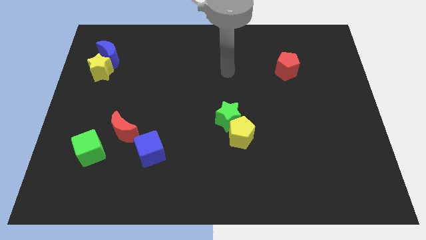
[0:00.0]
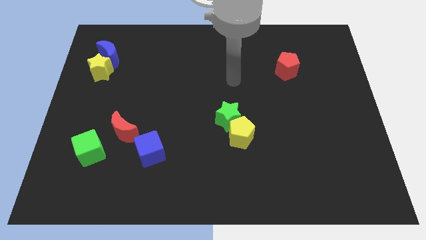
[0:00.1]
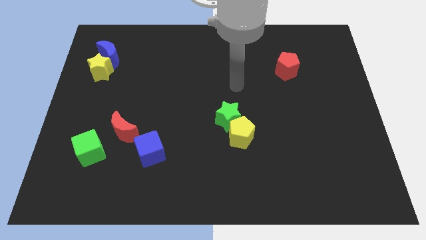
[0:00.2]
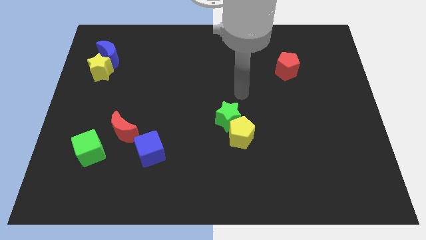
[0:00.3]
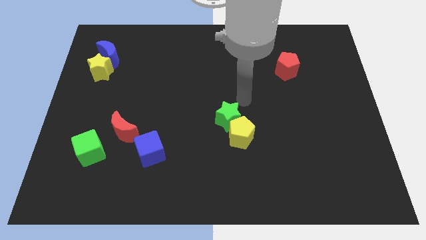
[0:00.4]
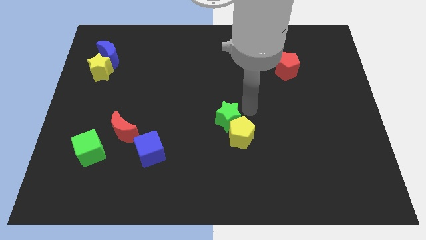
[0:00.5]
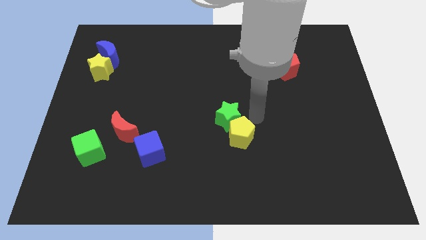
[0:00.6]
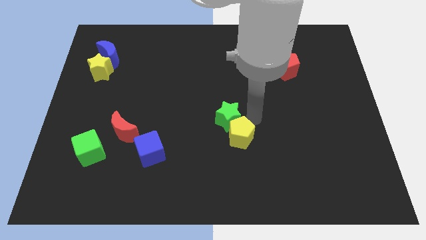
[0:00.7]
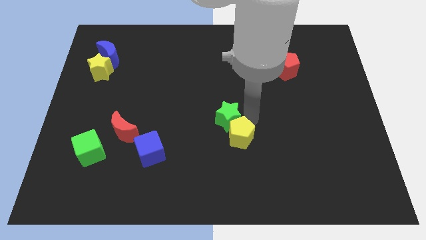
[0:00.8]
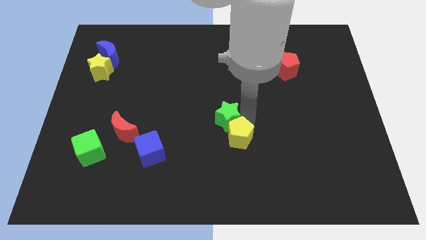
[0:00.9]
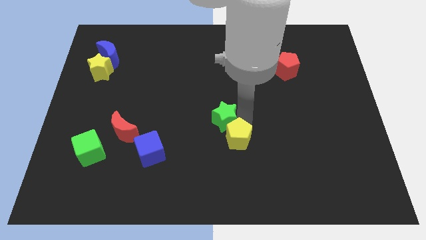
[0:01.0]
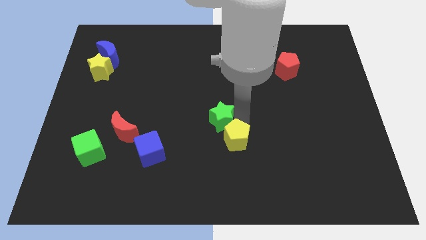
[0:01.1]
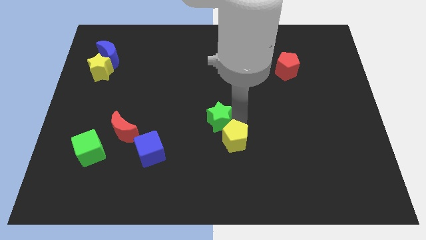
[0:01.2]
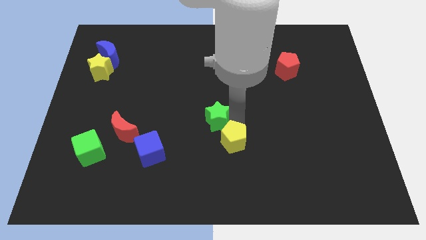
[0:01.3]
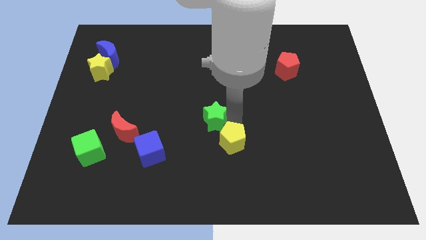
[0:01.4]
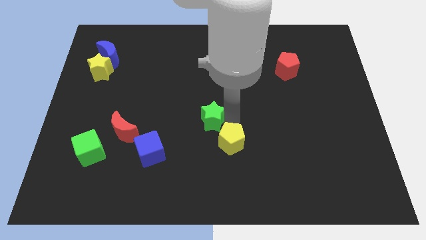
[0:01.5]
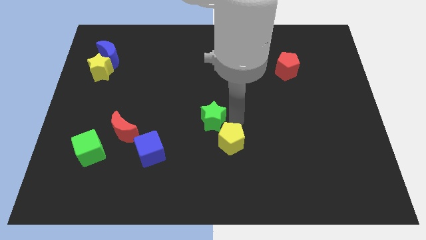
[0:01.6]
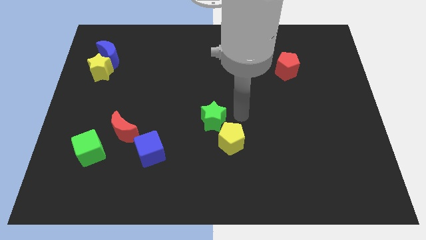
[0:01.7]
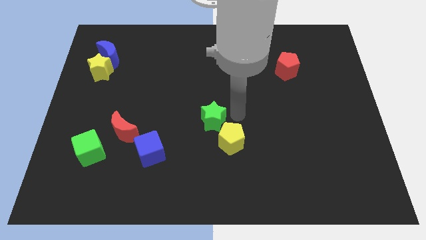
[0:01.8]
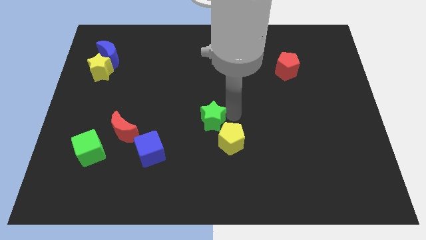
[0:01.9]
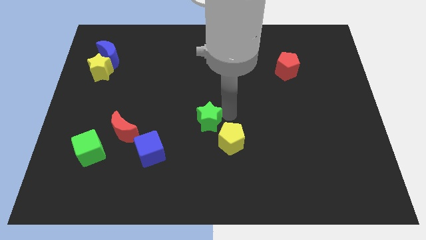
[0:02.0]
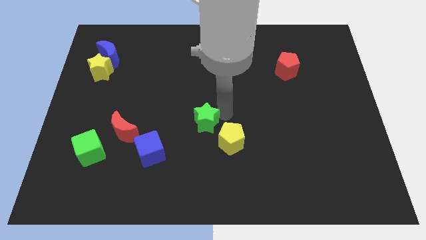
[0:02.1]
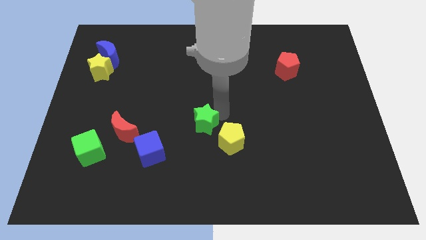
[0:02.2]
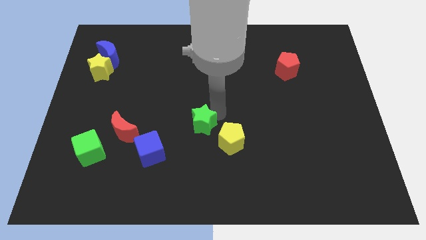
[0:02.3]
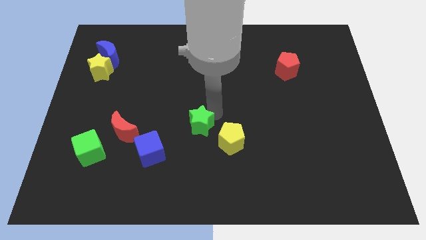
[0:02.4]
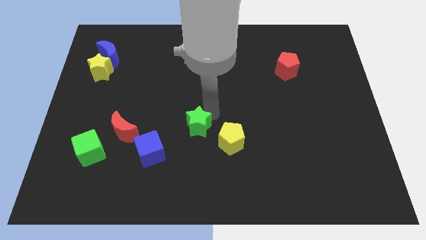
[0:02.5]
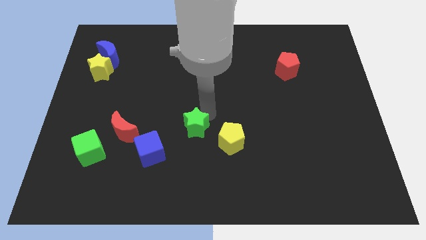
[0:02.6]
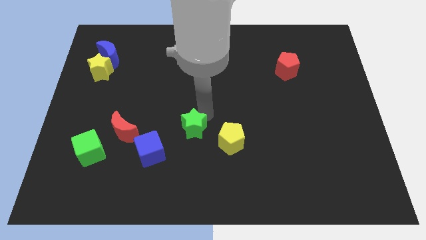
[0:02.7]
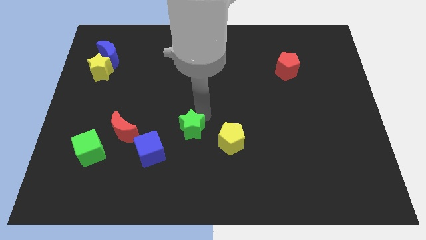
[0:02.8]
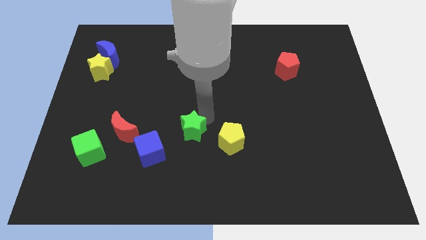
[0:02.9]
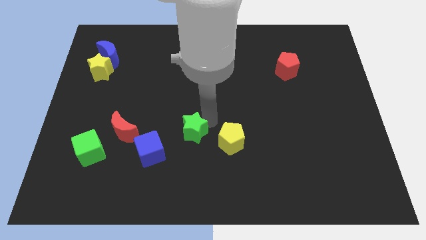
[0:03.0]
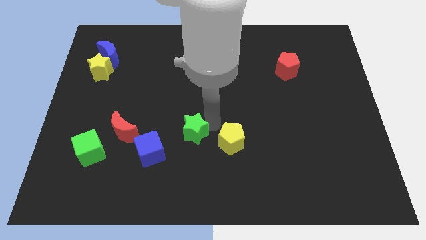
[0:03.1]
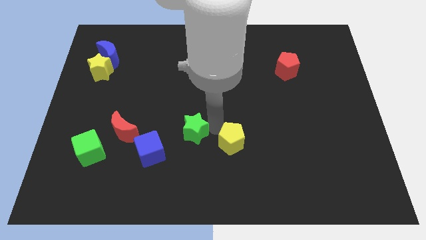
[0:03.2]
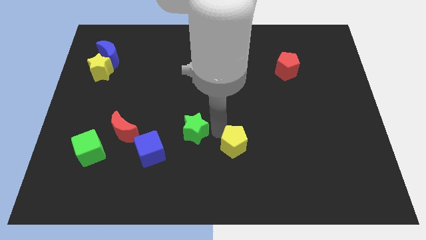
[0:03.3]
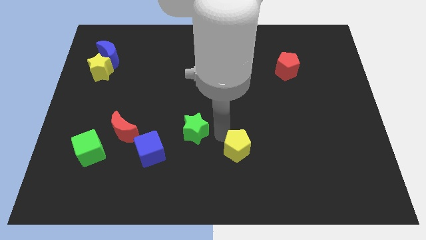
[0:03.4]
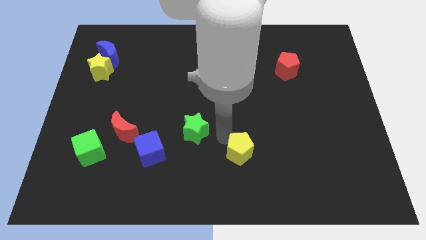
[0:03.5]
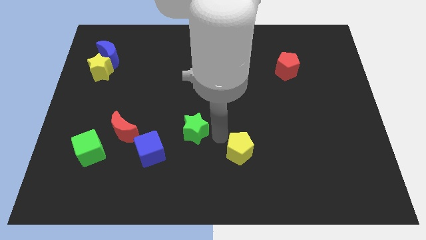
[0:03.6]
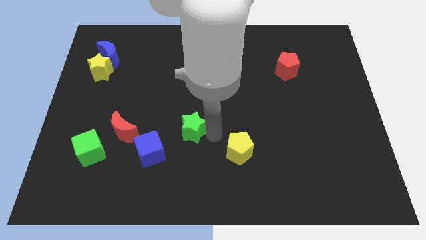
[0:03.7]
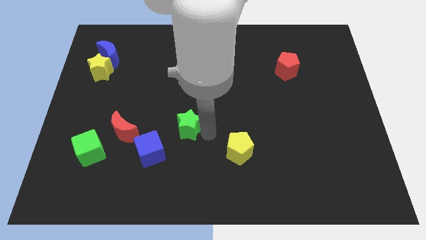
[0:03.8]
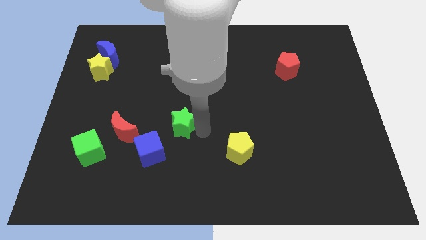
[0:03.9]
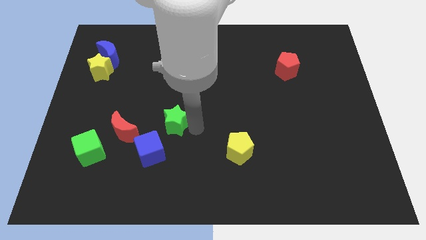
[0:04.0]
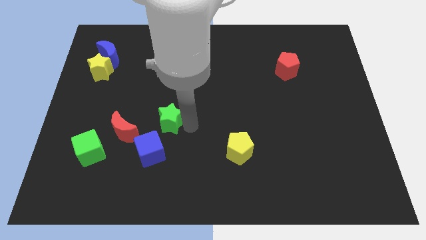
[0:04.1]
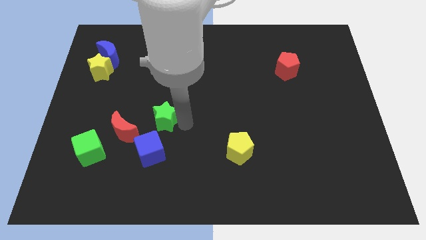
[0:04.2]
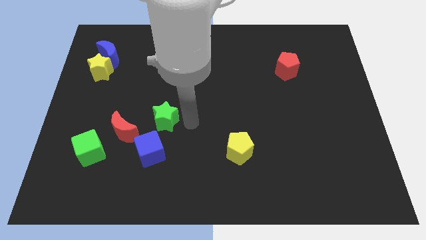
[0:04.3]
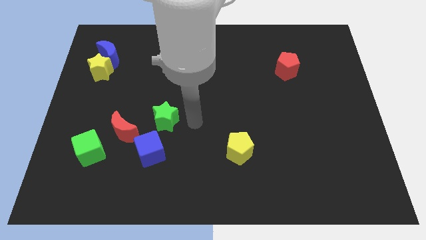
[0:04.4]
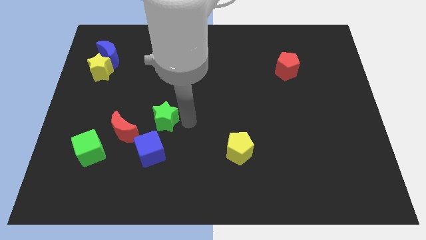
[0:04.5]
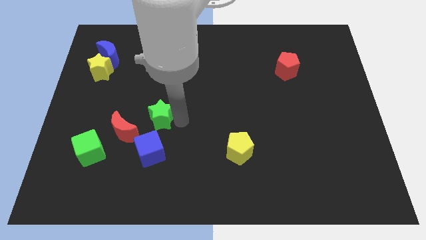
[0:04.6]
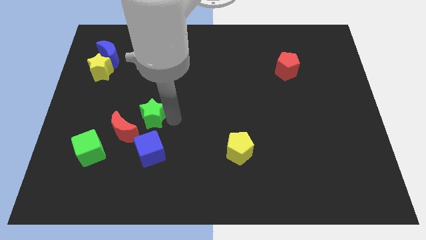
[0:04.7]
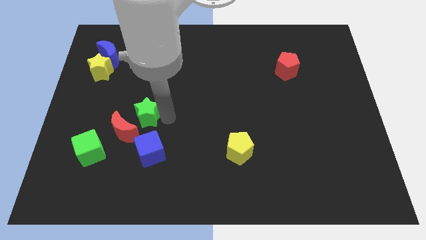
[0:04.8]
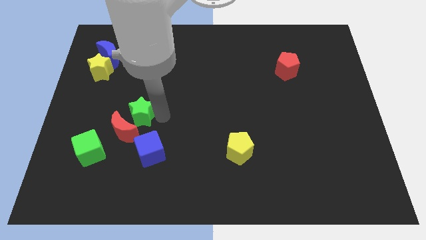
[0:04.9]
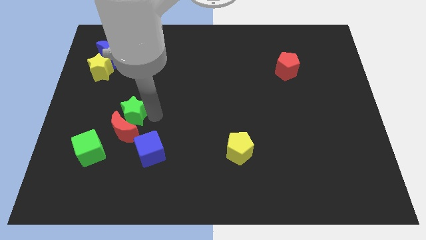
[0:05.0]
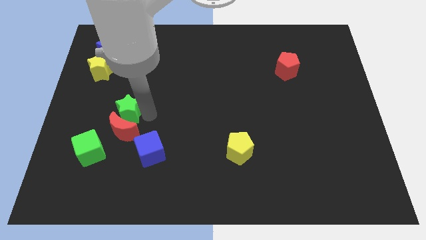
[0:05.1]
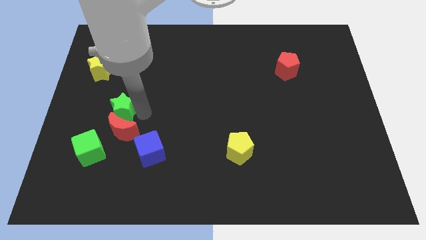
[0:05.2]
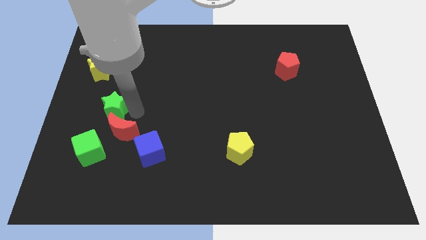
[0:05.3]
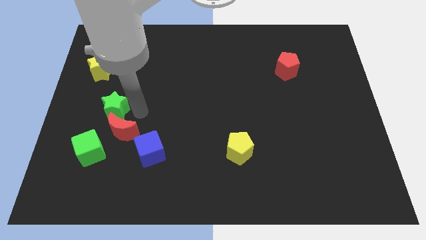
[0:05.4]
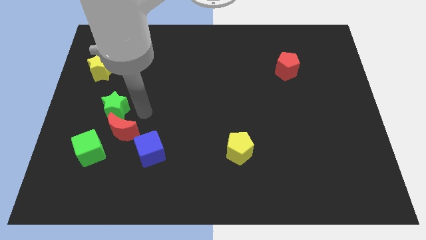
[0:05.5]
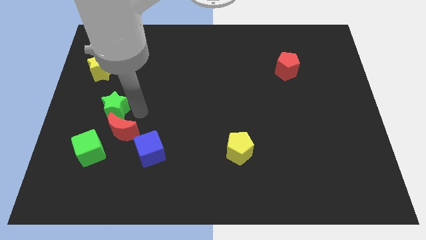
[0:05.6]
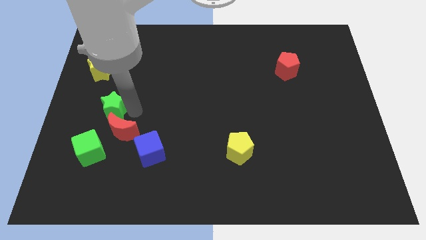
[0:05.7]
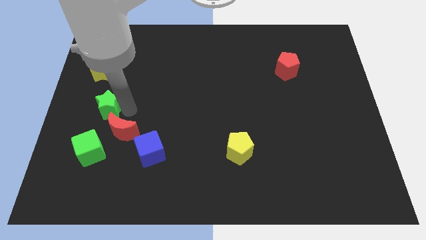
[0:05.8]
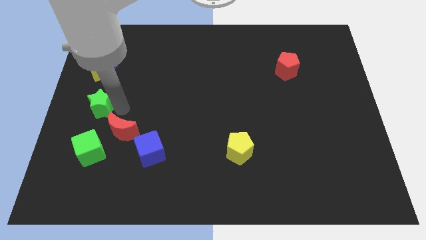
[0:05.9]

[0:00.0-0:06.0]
put the green star to the center left
